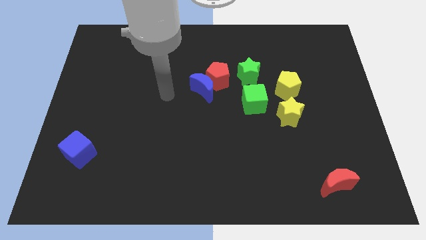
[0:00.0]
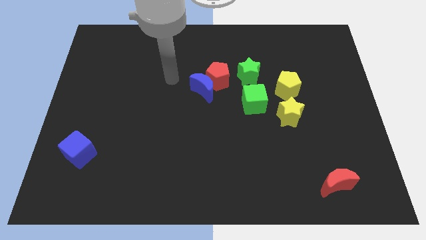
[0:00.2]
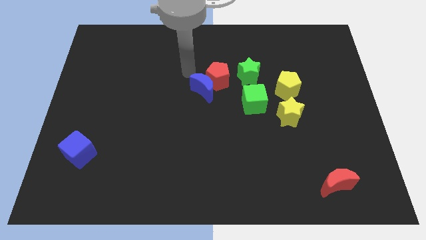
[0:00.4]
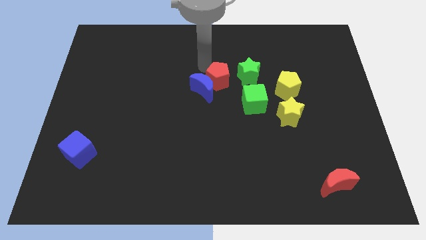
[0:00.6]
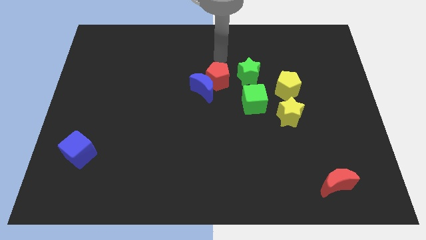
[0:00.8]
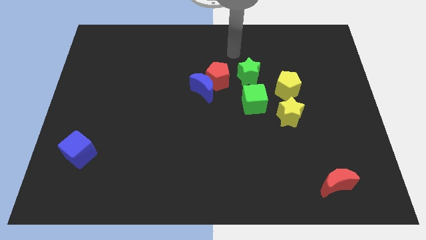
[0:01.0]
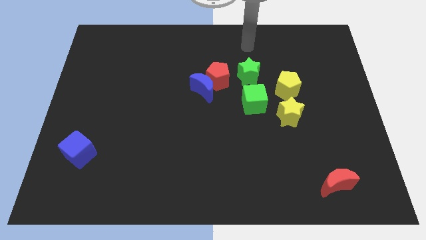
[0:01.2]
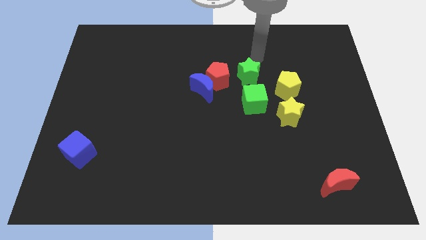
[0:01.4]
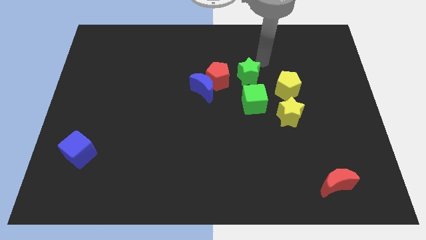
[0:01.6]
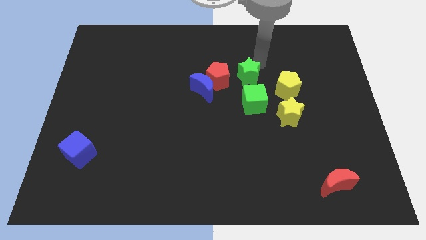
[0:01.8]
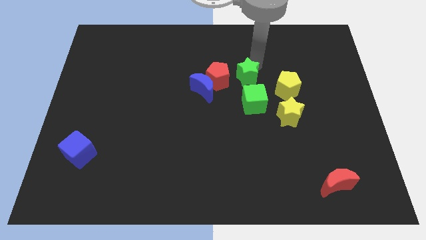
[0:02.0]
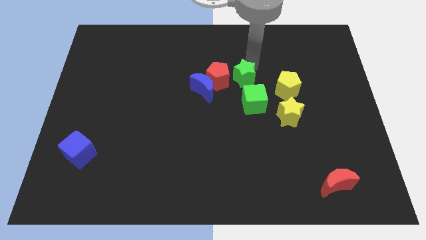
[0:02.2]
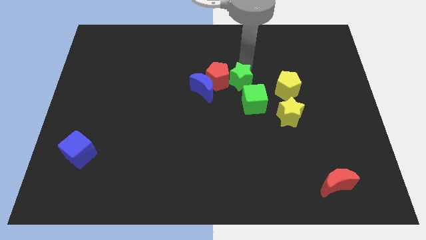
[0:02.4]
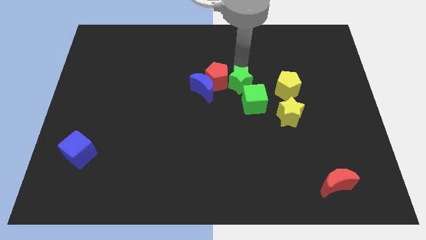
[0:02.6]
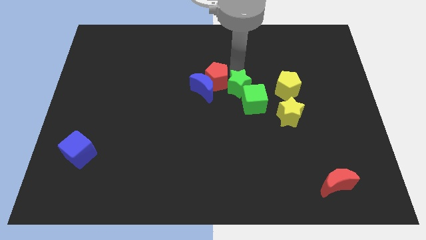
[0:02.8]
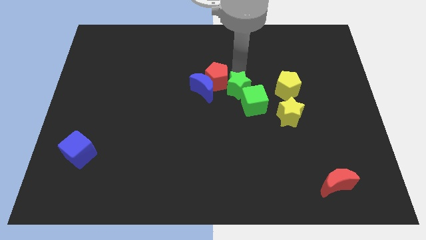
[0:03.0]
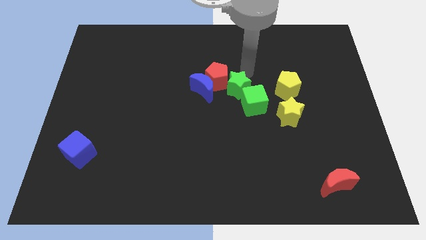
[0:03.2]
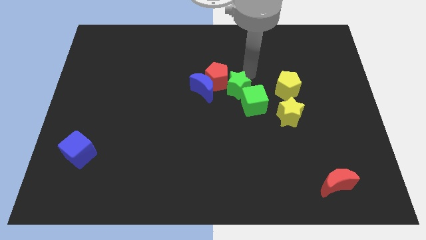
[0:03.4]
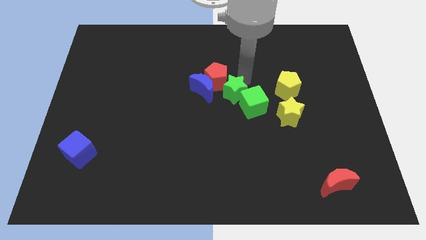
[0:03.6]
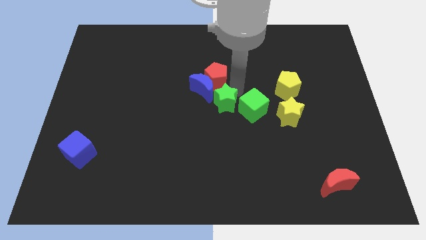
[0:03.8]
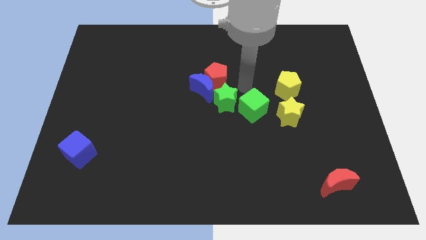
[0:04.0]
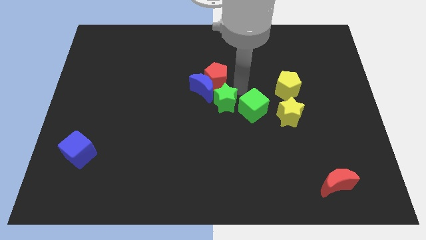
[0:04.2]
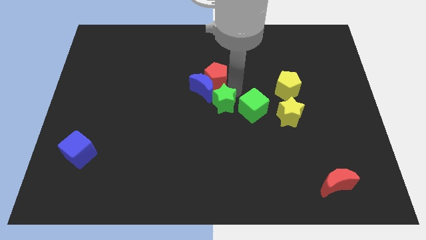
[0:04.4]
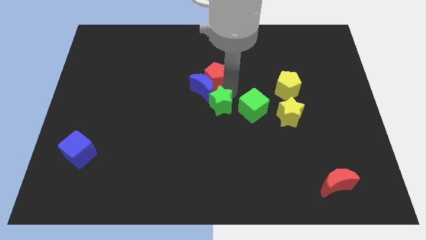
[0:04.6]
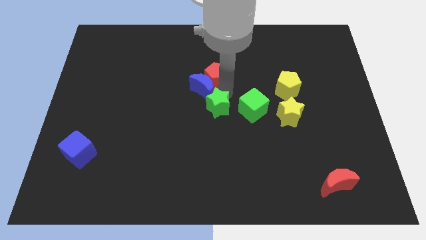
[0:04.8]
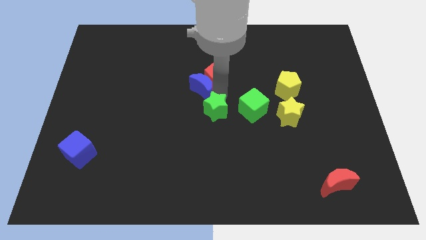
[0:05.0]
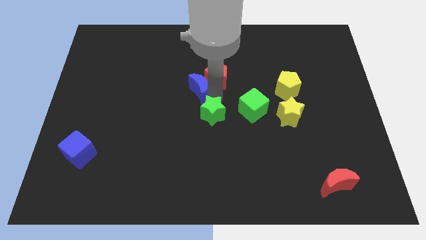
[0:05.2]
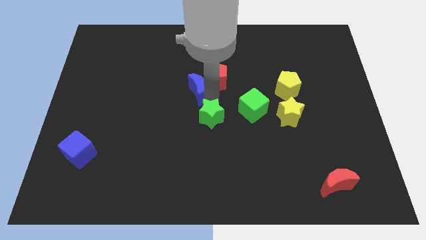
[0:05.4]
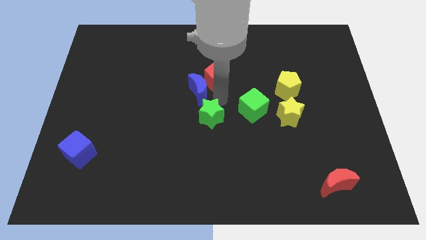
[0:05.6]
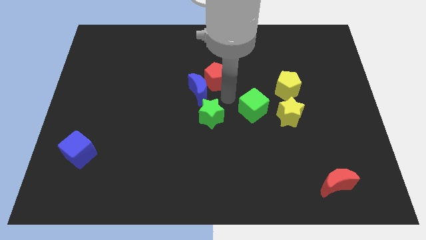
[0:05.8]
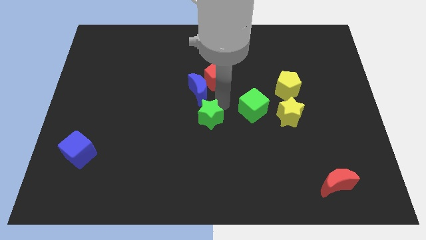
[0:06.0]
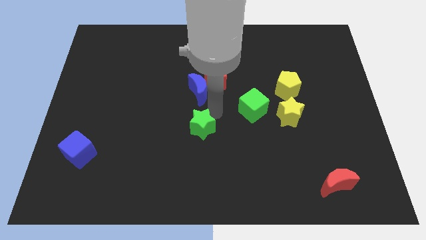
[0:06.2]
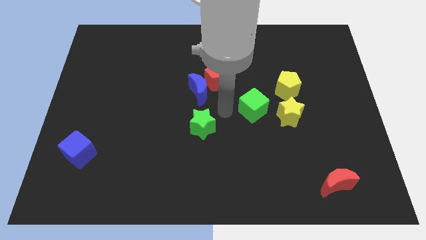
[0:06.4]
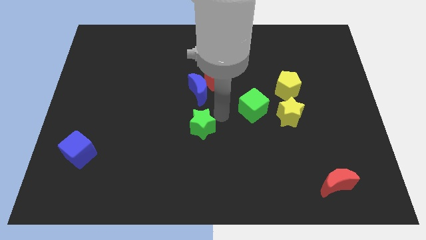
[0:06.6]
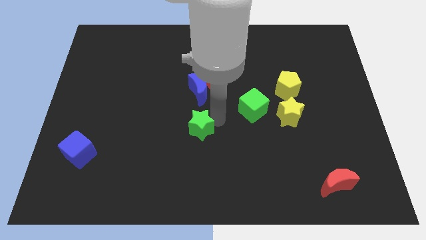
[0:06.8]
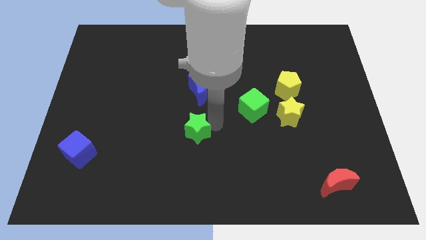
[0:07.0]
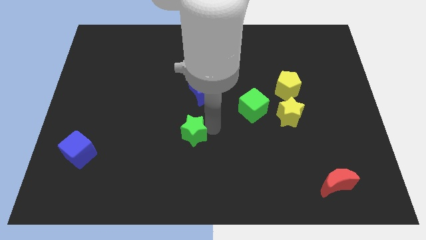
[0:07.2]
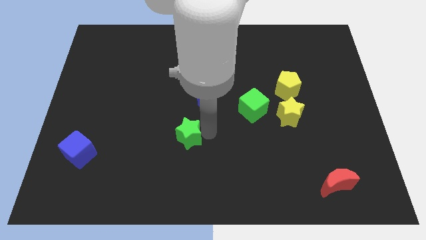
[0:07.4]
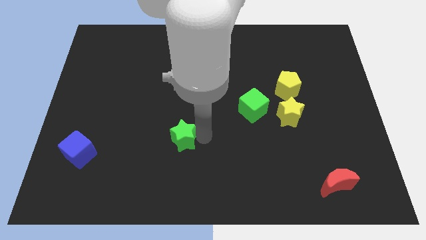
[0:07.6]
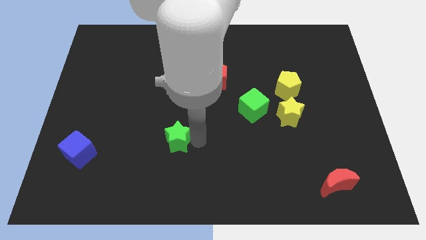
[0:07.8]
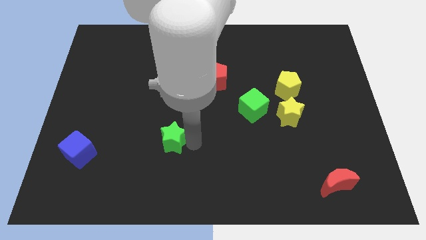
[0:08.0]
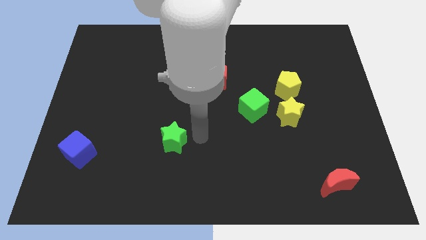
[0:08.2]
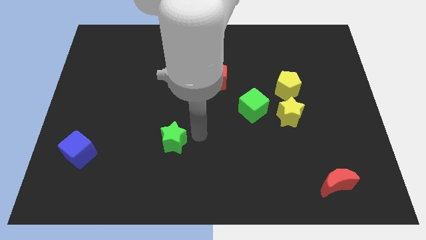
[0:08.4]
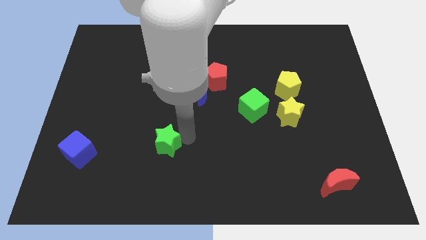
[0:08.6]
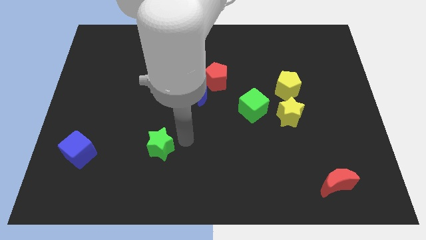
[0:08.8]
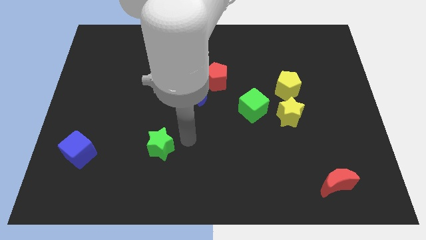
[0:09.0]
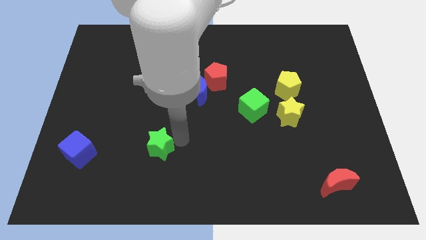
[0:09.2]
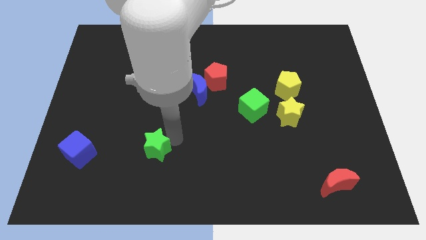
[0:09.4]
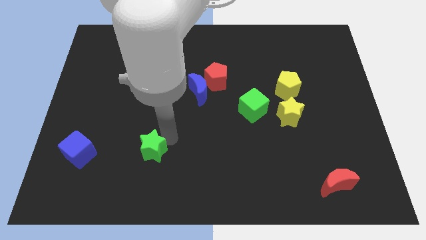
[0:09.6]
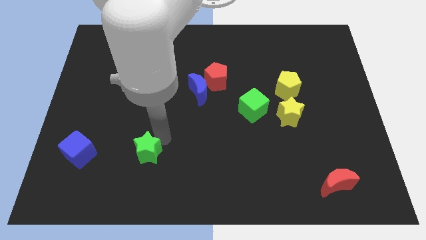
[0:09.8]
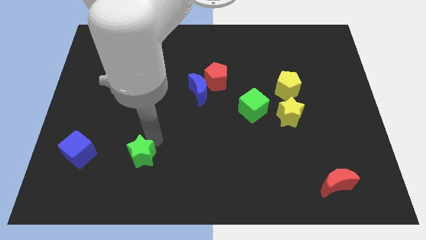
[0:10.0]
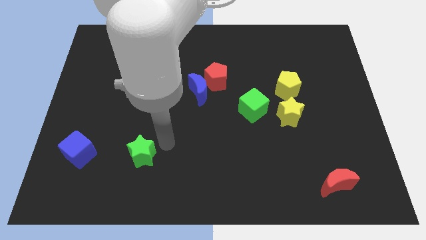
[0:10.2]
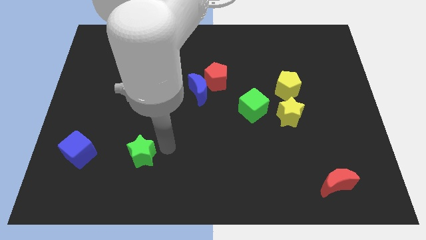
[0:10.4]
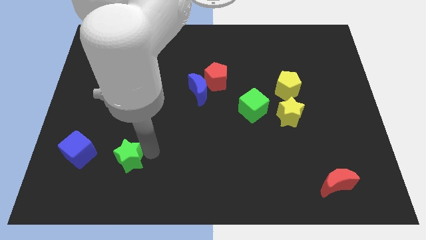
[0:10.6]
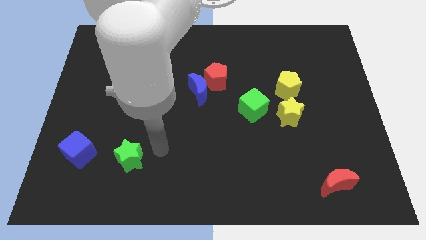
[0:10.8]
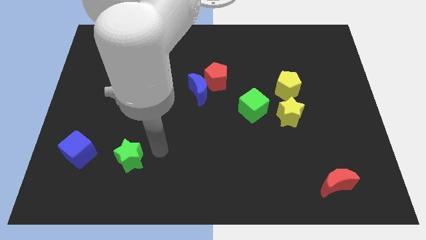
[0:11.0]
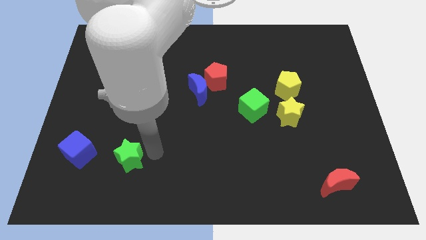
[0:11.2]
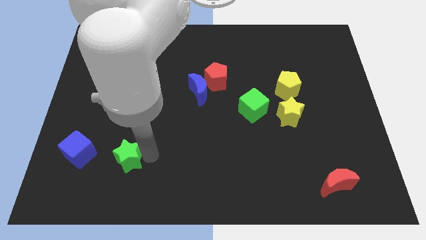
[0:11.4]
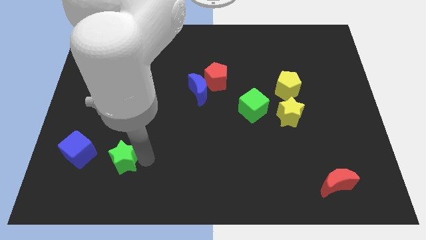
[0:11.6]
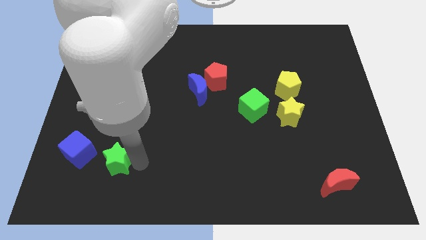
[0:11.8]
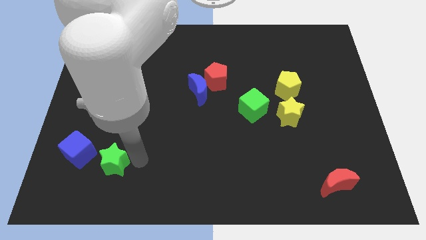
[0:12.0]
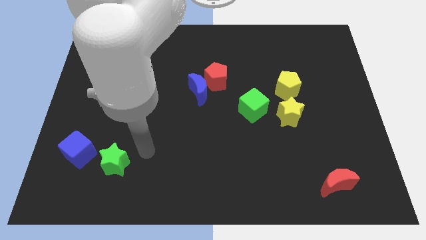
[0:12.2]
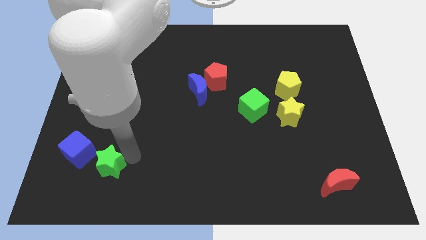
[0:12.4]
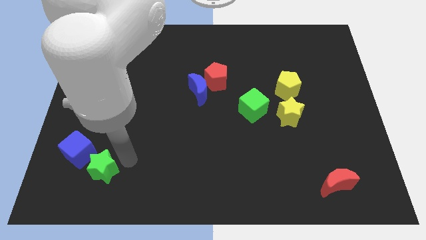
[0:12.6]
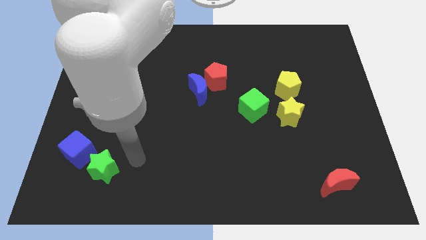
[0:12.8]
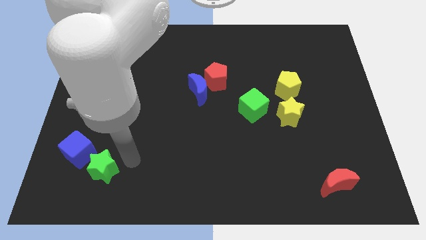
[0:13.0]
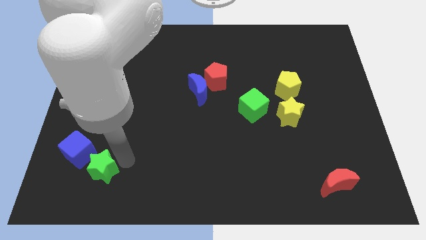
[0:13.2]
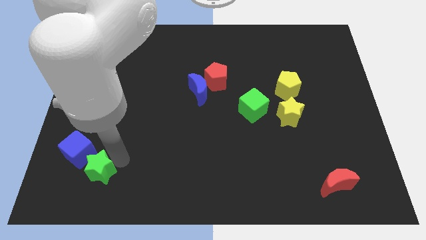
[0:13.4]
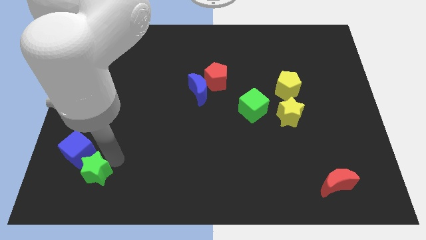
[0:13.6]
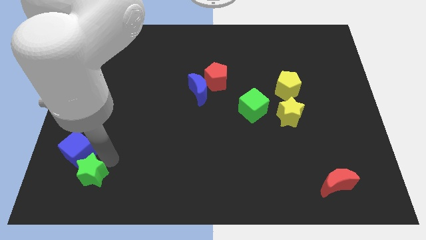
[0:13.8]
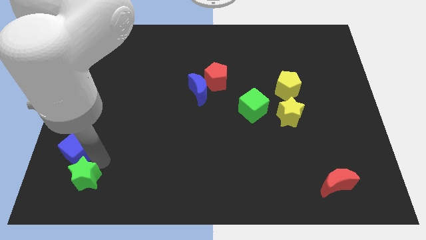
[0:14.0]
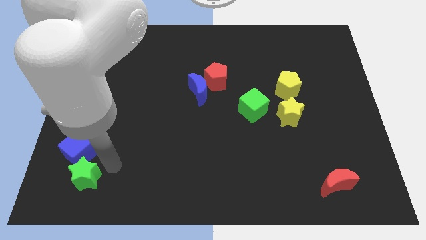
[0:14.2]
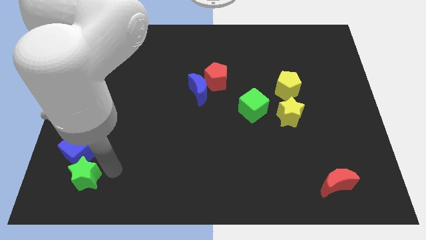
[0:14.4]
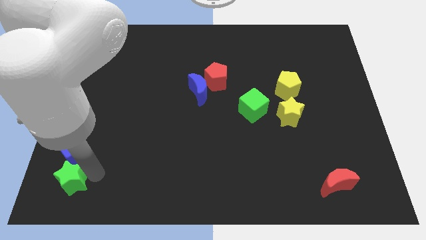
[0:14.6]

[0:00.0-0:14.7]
push the green star to the bottom left
